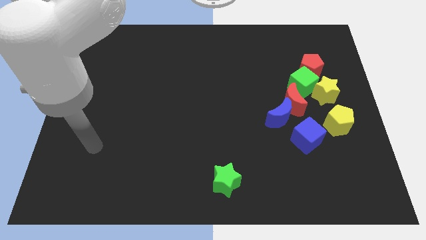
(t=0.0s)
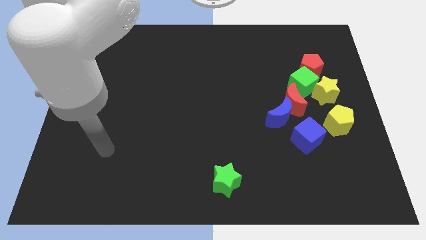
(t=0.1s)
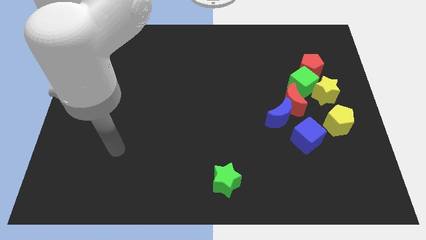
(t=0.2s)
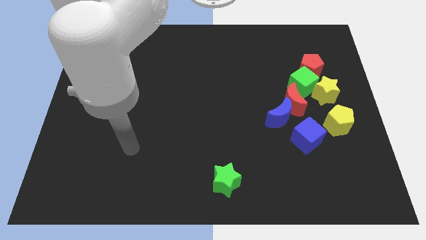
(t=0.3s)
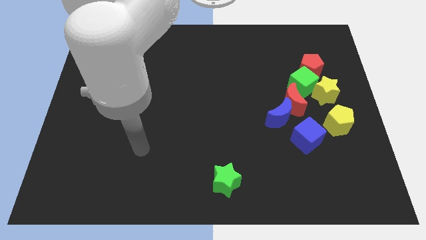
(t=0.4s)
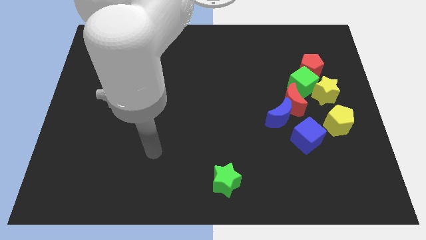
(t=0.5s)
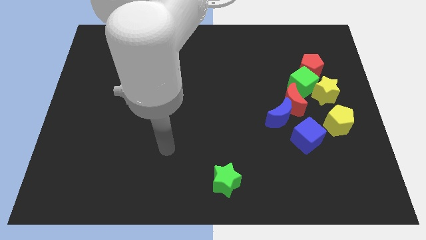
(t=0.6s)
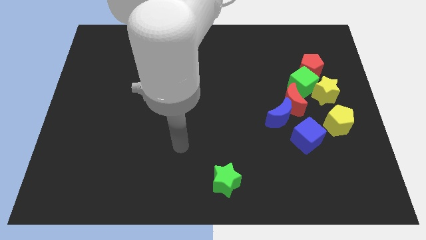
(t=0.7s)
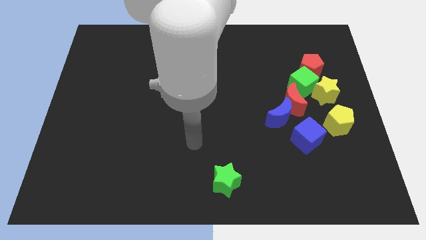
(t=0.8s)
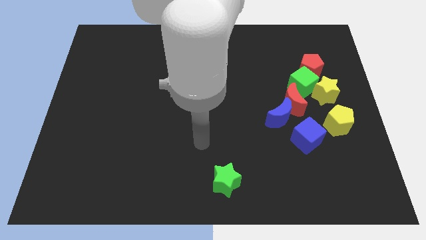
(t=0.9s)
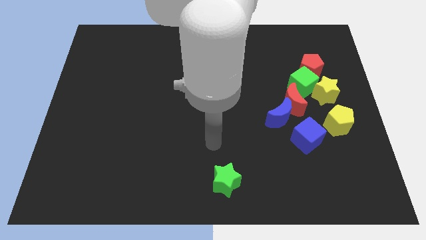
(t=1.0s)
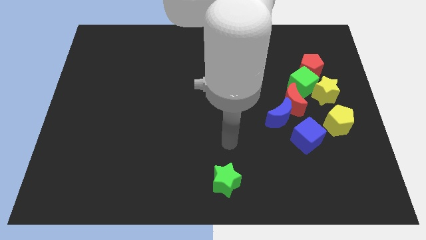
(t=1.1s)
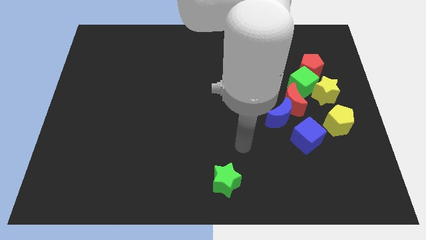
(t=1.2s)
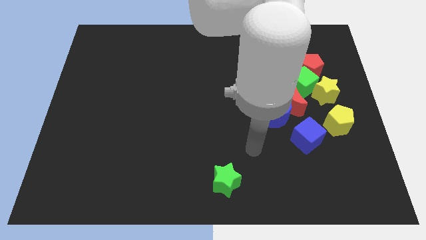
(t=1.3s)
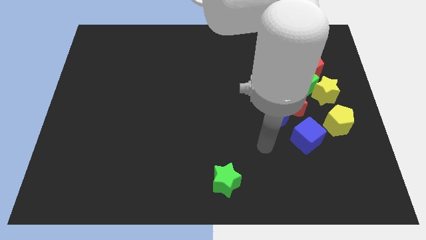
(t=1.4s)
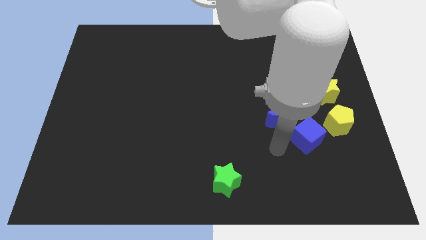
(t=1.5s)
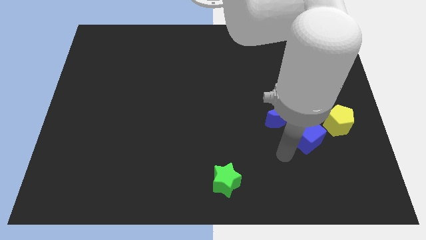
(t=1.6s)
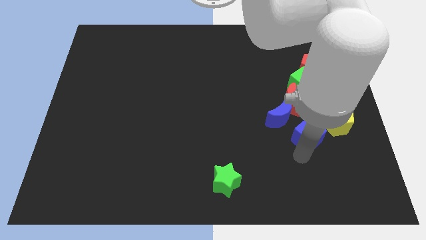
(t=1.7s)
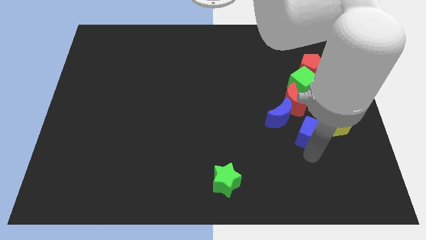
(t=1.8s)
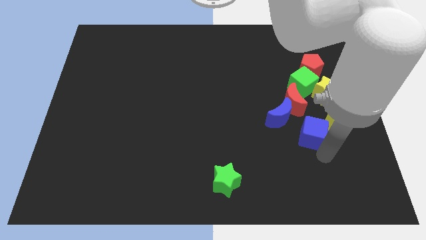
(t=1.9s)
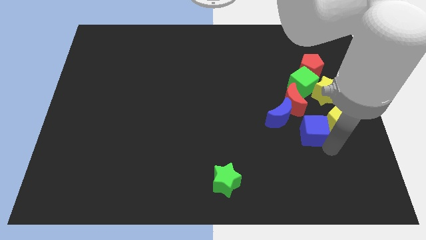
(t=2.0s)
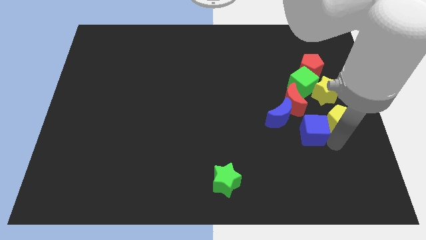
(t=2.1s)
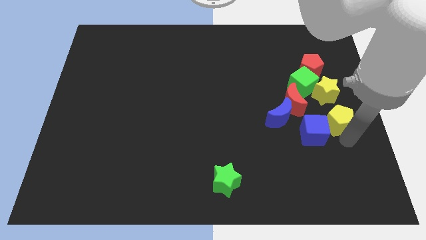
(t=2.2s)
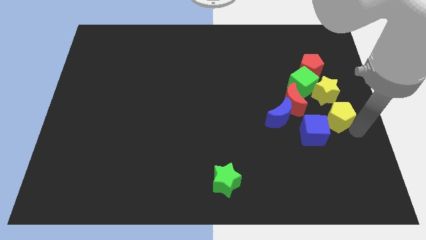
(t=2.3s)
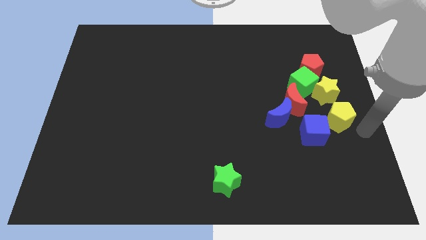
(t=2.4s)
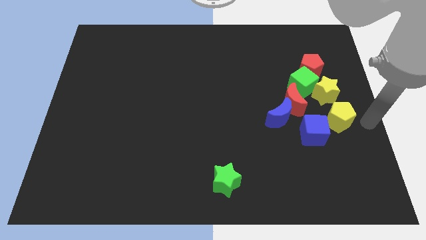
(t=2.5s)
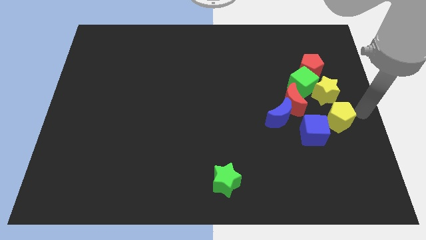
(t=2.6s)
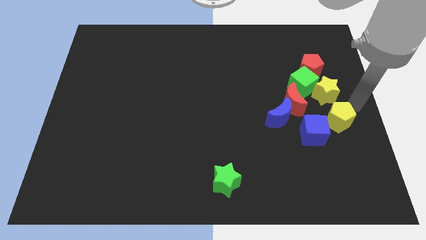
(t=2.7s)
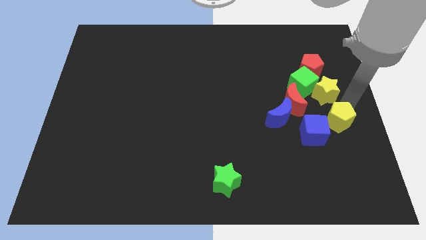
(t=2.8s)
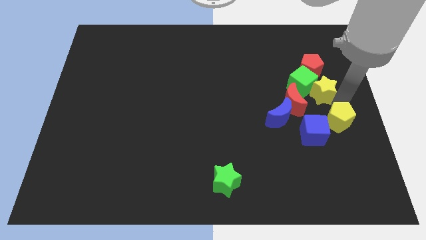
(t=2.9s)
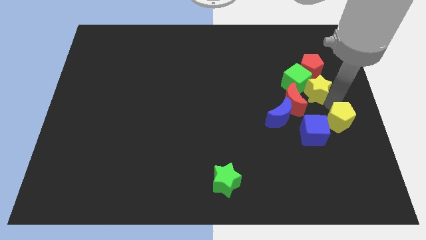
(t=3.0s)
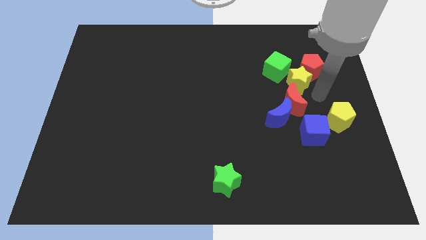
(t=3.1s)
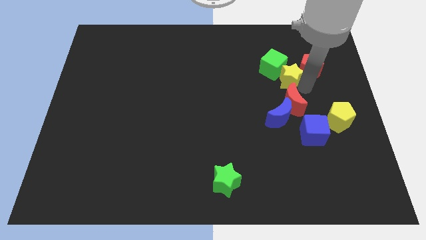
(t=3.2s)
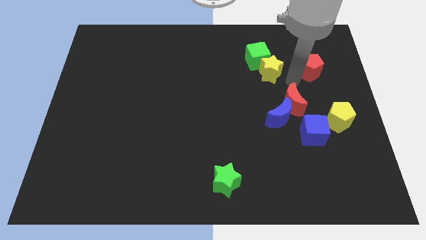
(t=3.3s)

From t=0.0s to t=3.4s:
pull the green cube apart from the red pentagon, yellow star, and red moon

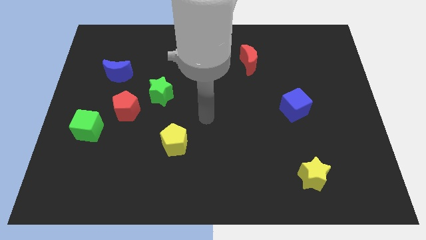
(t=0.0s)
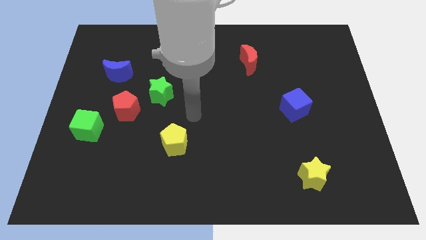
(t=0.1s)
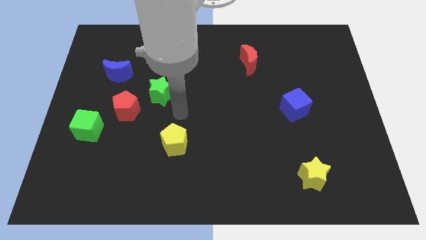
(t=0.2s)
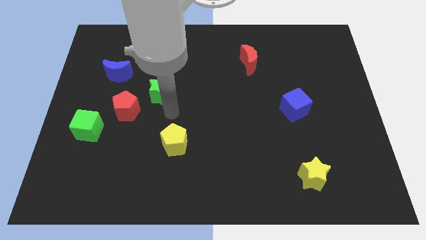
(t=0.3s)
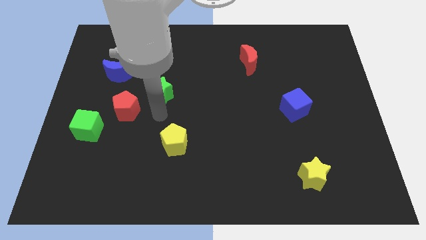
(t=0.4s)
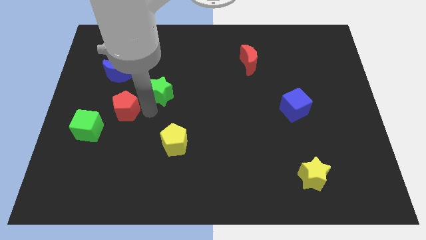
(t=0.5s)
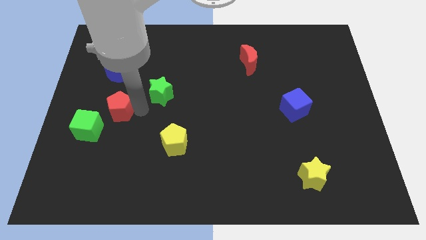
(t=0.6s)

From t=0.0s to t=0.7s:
move the green star away from the red pentagon

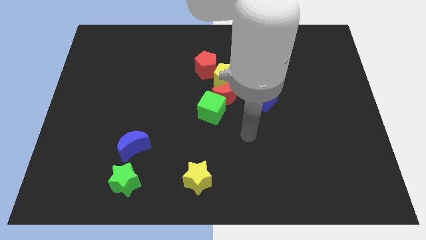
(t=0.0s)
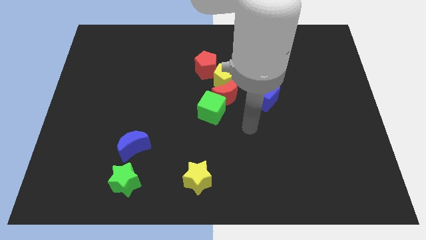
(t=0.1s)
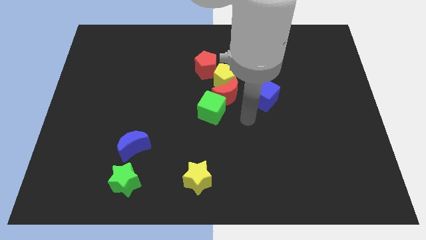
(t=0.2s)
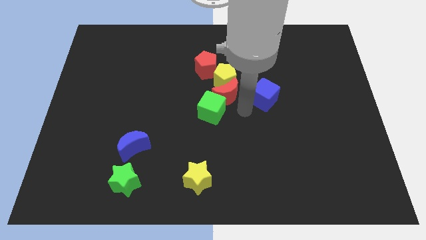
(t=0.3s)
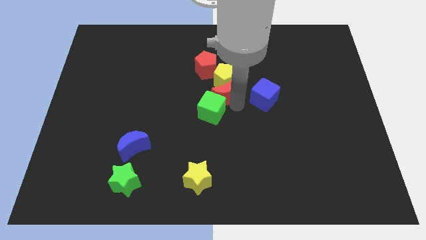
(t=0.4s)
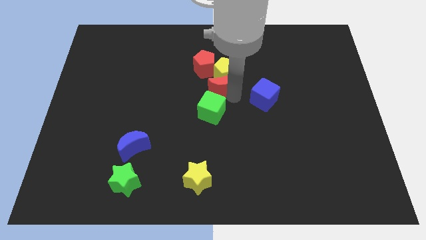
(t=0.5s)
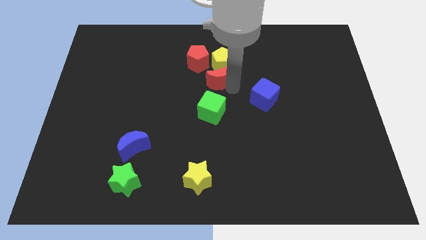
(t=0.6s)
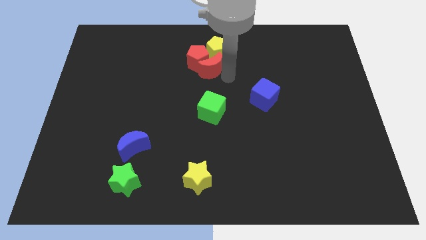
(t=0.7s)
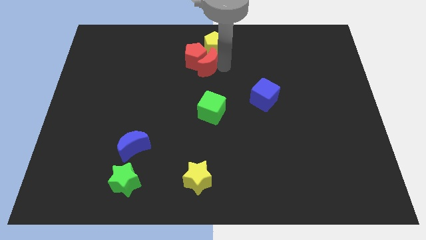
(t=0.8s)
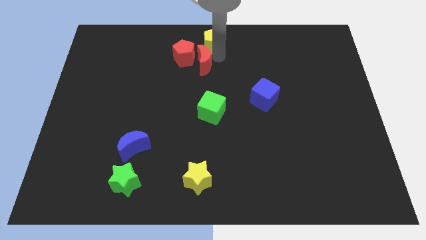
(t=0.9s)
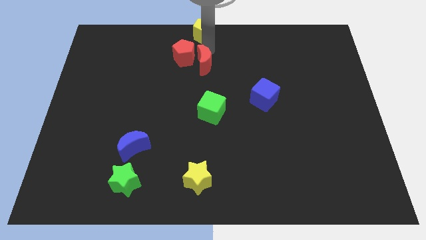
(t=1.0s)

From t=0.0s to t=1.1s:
move the red pentagon away from the yellow pentagon

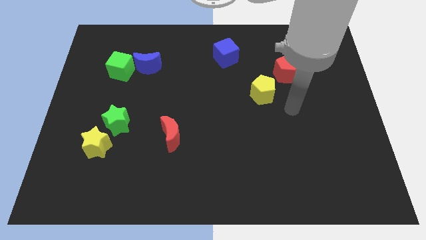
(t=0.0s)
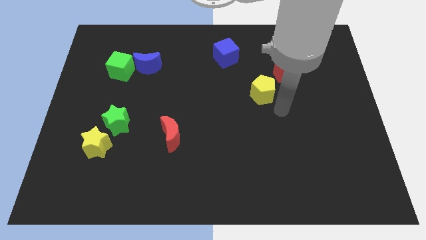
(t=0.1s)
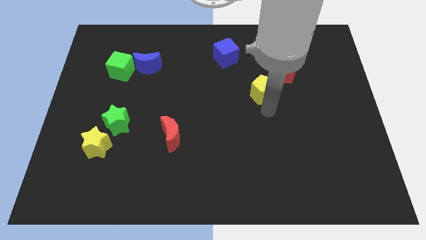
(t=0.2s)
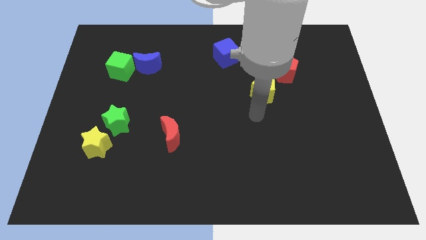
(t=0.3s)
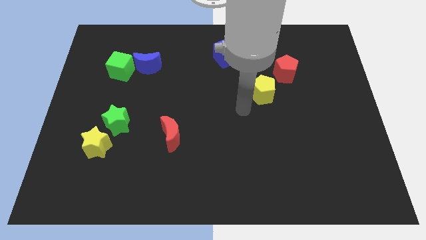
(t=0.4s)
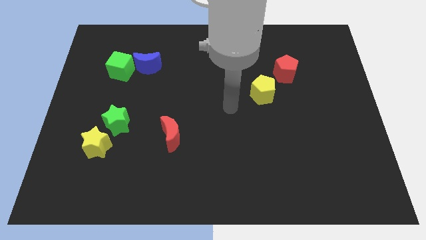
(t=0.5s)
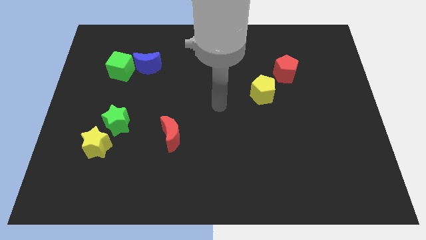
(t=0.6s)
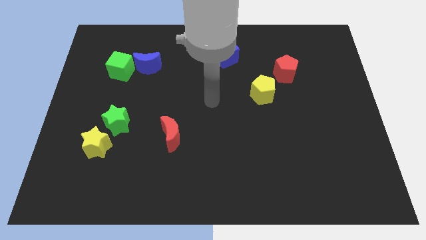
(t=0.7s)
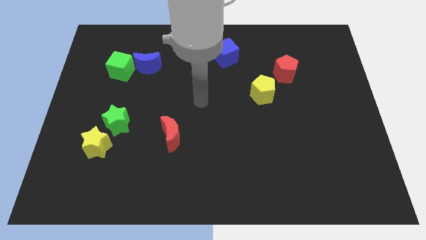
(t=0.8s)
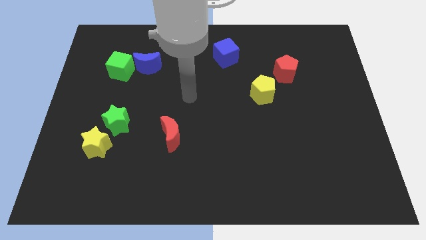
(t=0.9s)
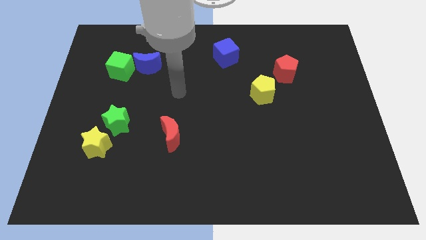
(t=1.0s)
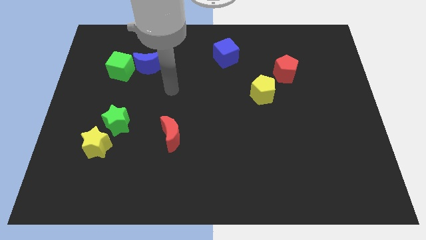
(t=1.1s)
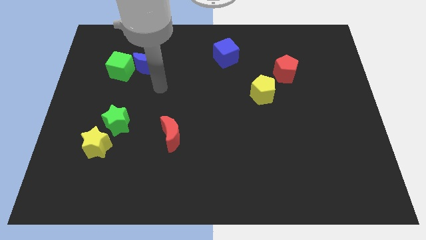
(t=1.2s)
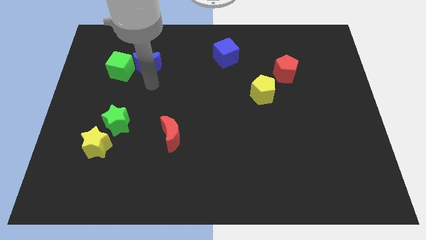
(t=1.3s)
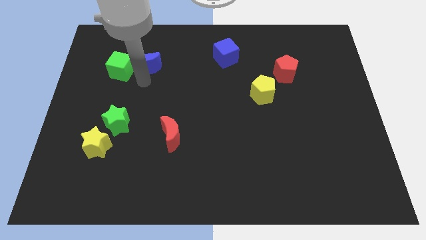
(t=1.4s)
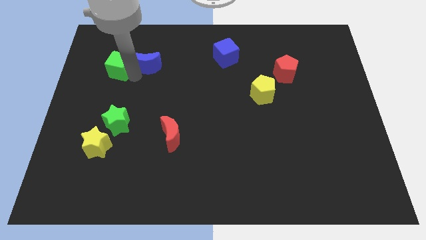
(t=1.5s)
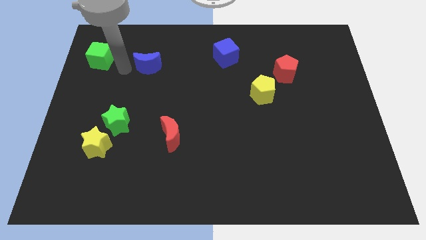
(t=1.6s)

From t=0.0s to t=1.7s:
pull the blue moon apart from the green cube

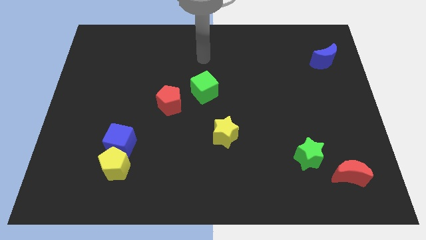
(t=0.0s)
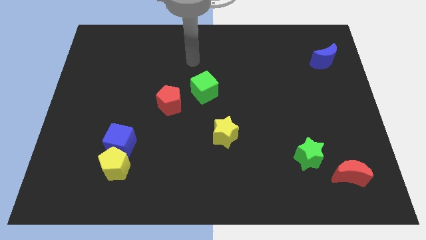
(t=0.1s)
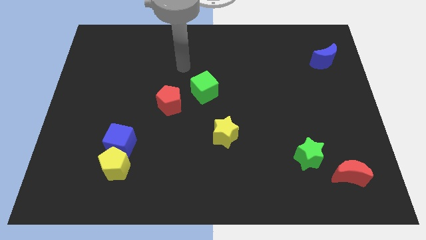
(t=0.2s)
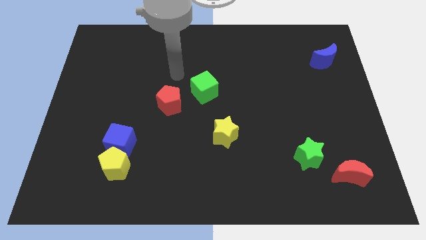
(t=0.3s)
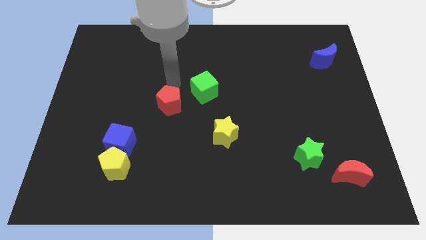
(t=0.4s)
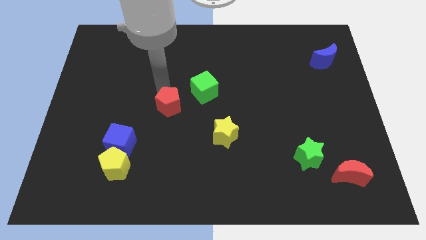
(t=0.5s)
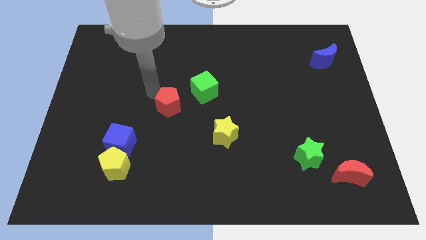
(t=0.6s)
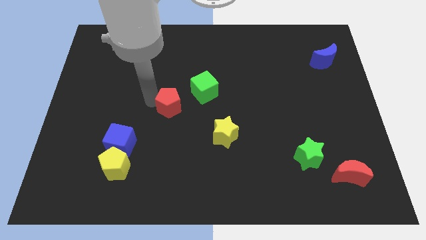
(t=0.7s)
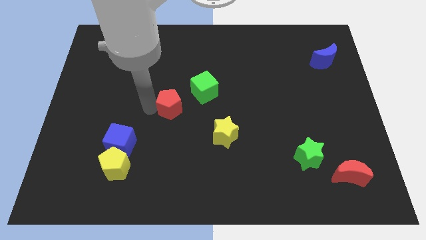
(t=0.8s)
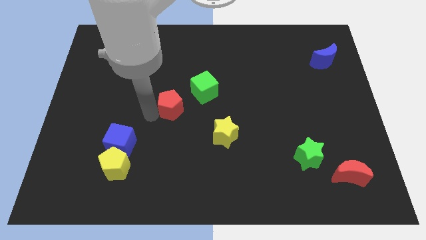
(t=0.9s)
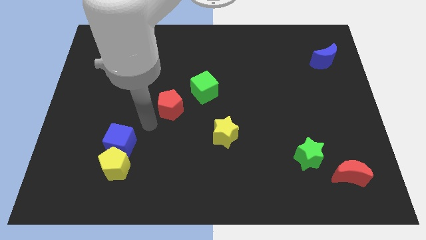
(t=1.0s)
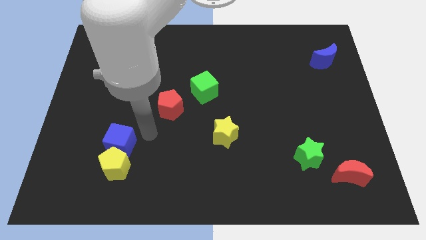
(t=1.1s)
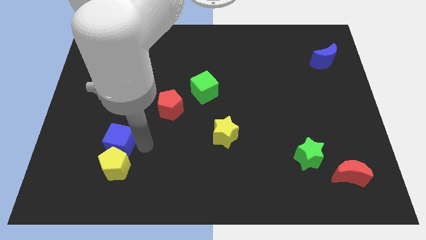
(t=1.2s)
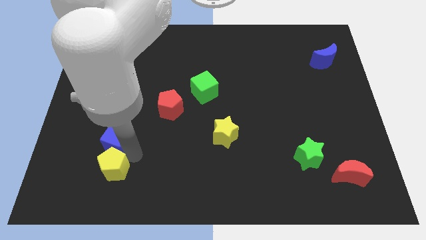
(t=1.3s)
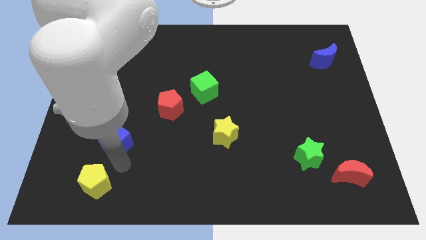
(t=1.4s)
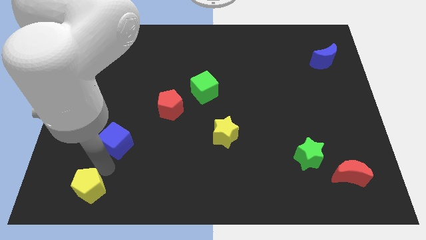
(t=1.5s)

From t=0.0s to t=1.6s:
separate the blue cube from the yellow pentagon

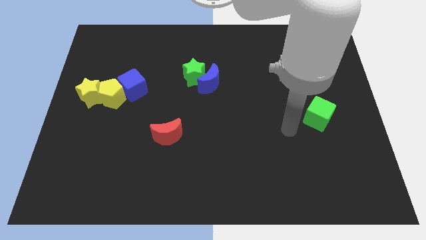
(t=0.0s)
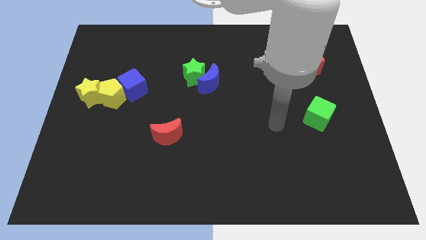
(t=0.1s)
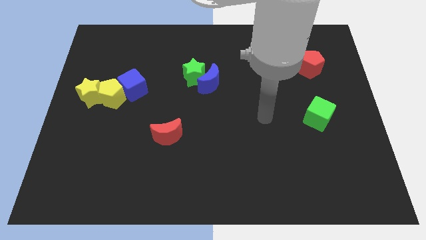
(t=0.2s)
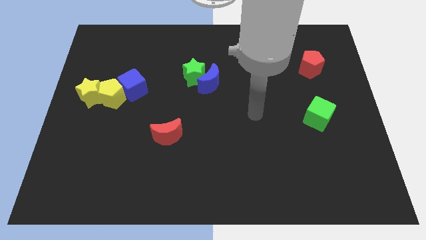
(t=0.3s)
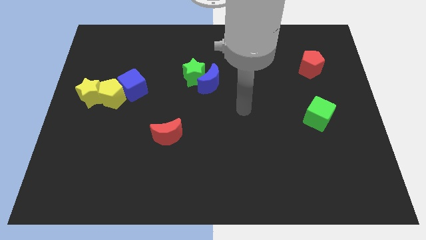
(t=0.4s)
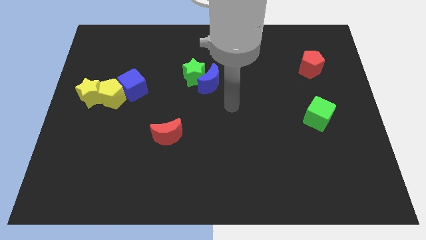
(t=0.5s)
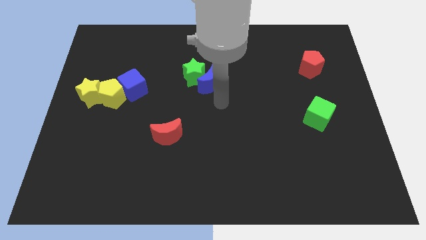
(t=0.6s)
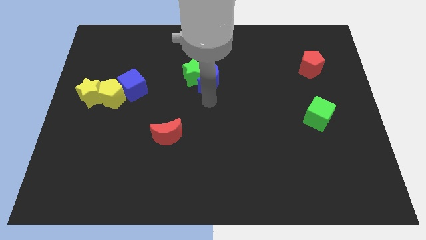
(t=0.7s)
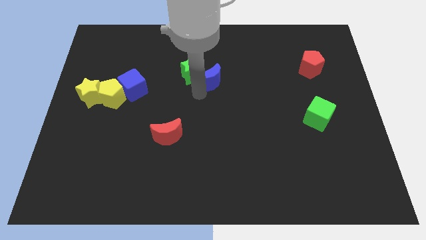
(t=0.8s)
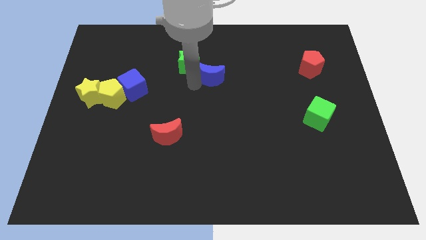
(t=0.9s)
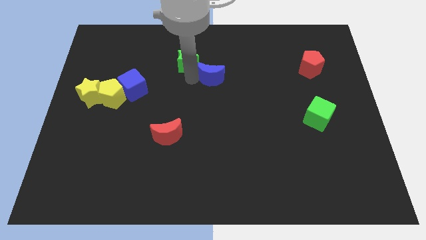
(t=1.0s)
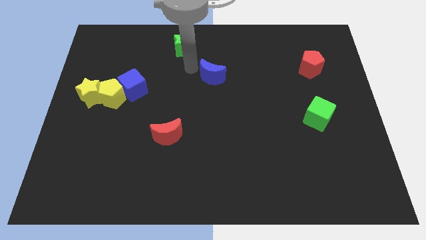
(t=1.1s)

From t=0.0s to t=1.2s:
separate the blue moon from the green star
